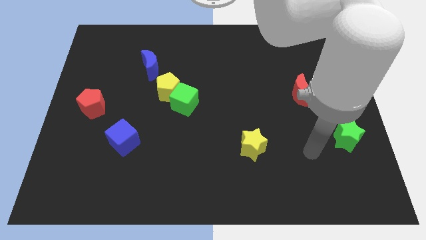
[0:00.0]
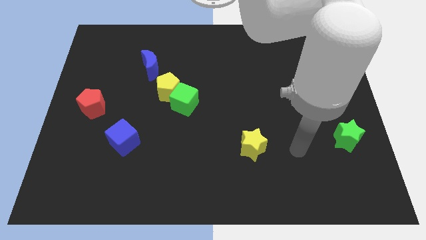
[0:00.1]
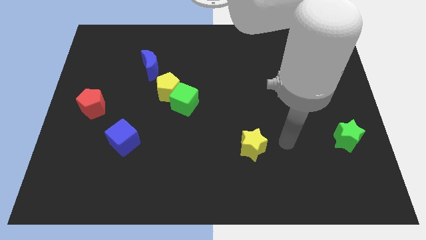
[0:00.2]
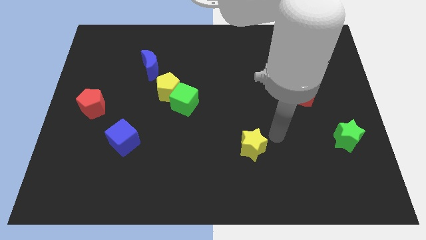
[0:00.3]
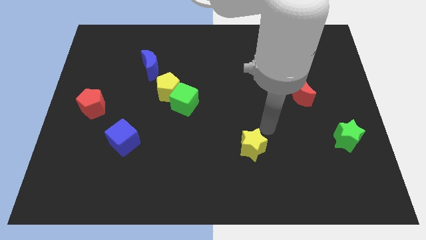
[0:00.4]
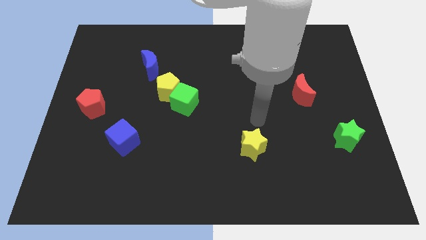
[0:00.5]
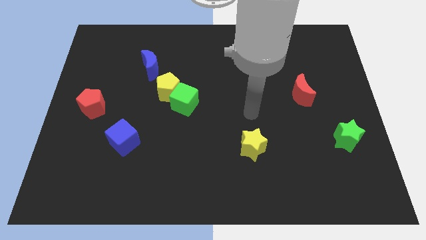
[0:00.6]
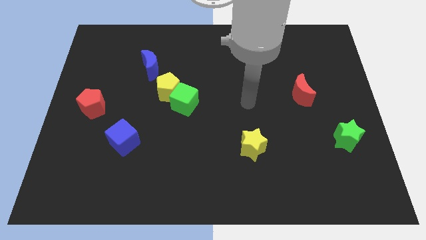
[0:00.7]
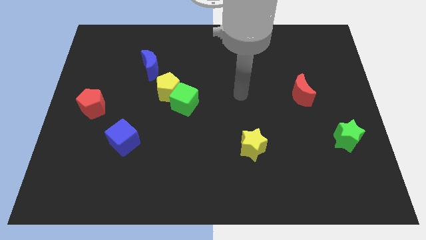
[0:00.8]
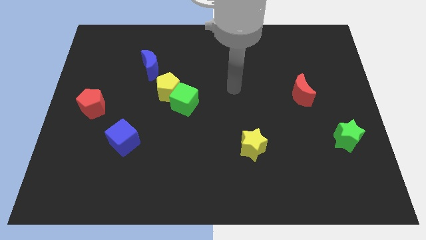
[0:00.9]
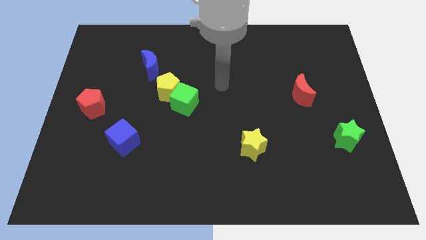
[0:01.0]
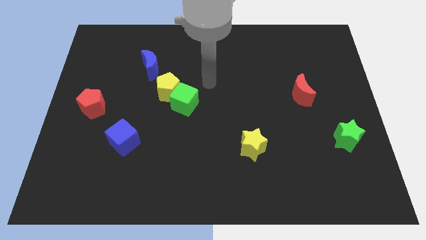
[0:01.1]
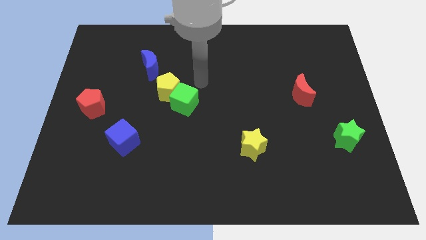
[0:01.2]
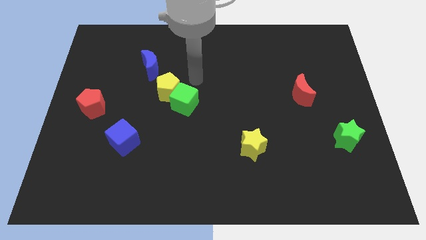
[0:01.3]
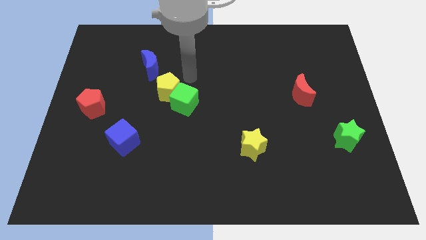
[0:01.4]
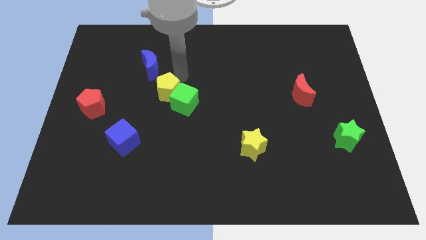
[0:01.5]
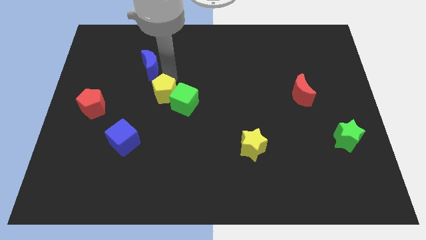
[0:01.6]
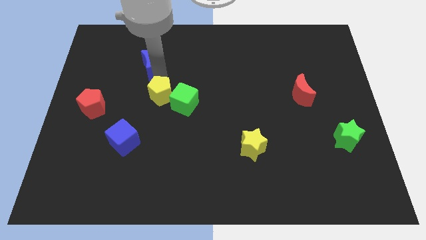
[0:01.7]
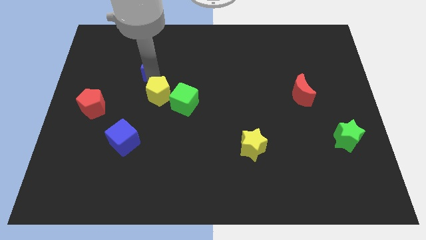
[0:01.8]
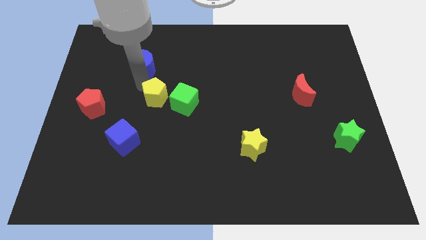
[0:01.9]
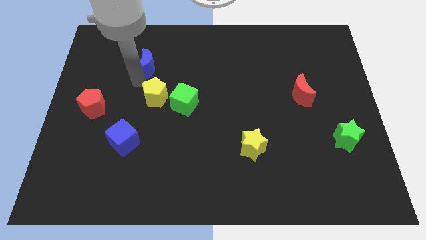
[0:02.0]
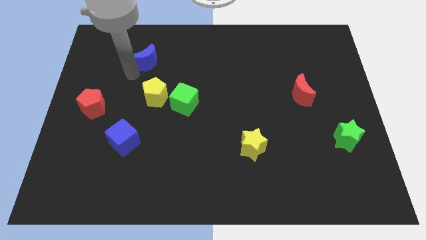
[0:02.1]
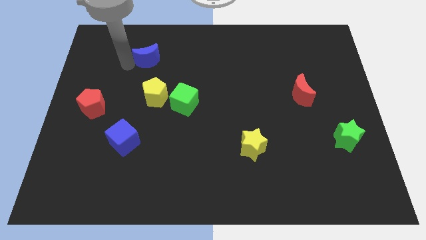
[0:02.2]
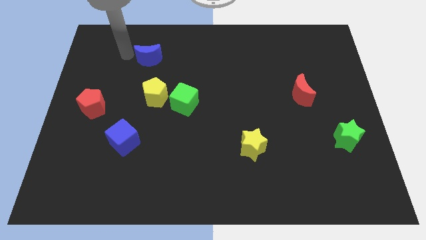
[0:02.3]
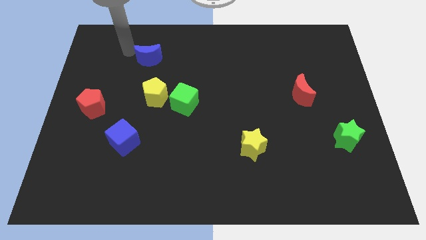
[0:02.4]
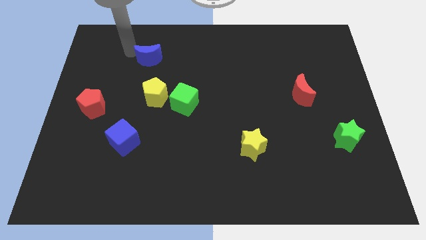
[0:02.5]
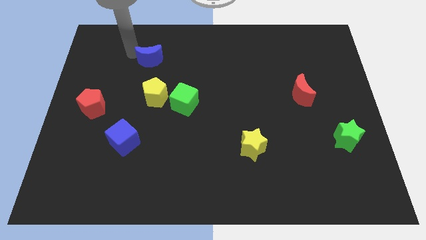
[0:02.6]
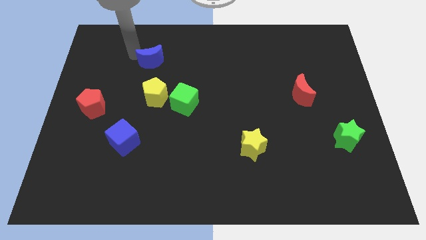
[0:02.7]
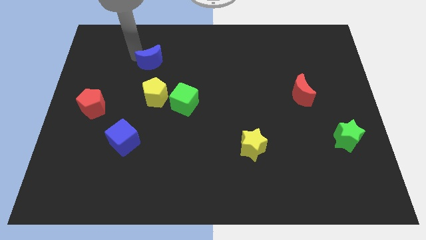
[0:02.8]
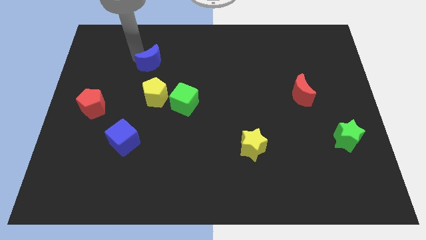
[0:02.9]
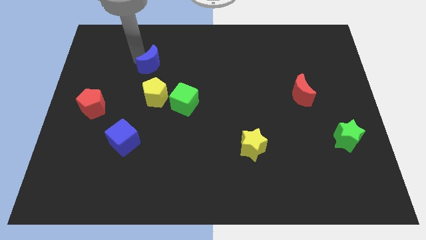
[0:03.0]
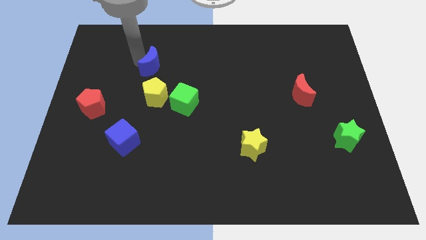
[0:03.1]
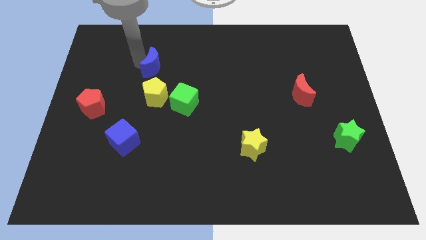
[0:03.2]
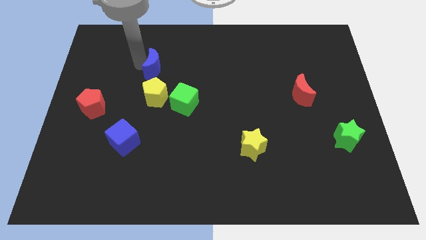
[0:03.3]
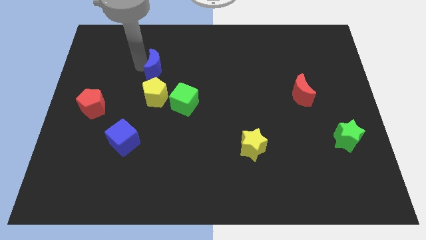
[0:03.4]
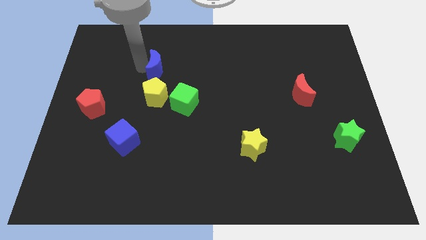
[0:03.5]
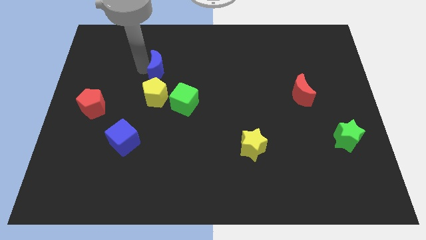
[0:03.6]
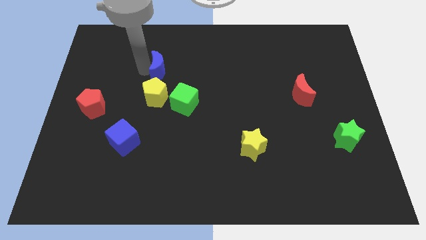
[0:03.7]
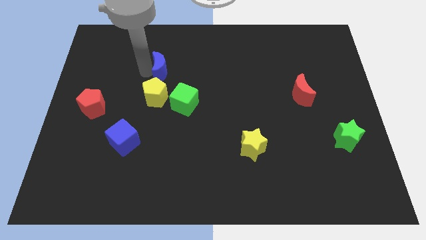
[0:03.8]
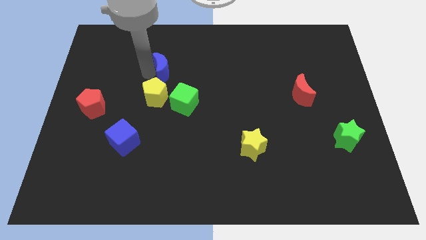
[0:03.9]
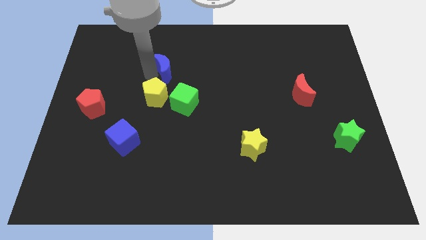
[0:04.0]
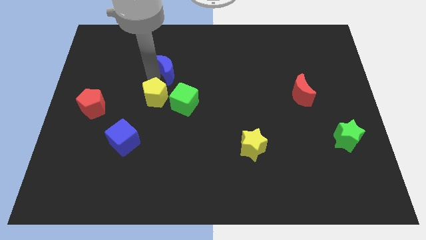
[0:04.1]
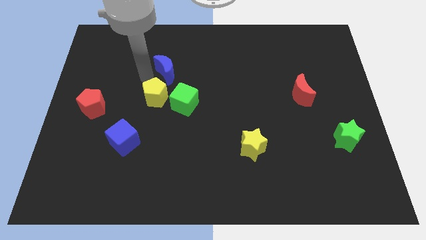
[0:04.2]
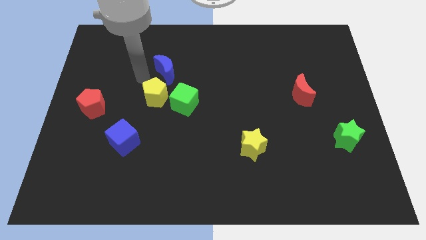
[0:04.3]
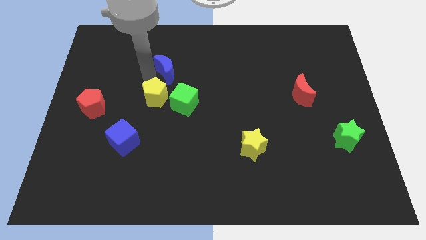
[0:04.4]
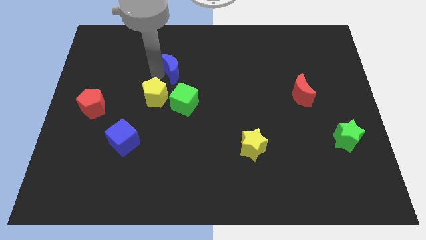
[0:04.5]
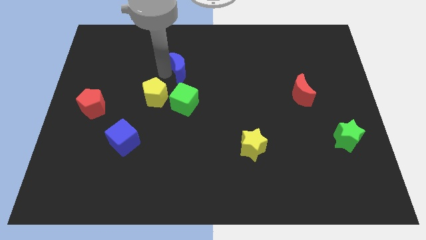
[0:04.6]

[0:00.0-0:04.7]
slightly push the blue moon to the right

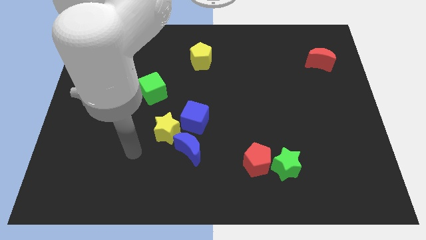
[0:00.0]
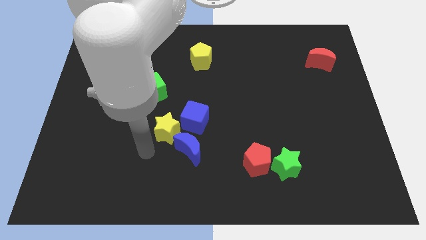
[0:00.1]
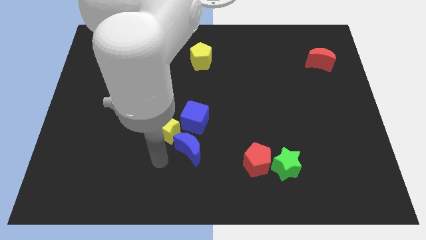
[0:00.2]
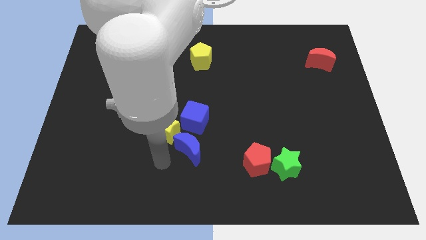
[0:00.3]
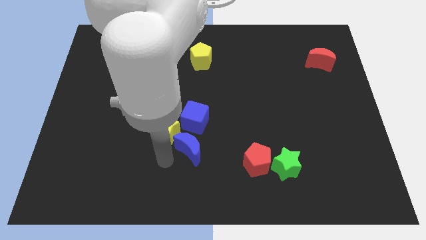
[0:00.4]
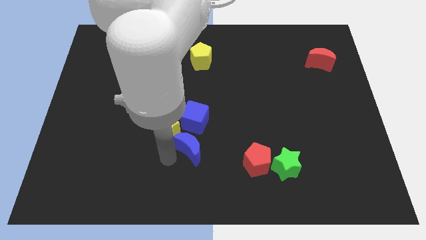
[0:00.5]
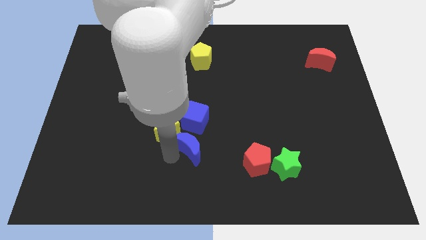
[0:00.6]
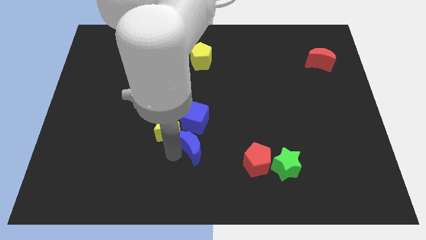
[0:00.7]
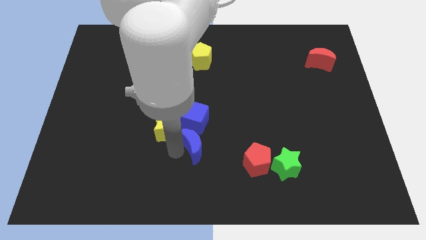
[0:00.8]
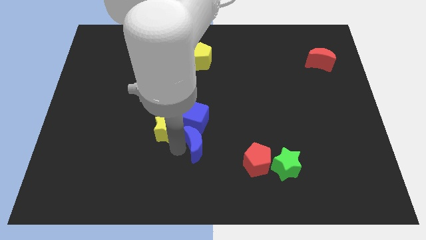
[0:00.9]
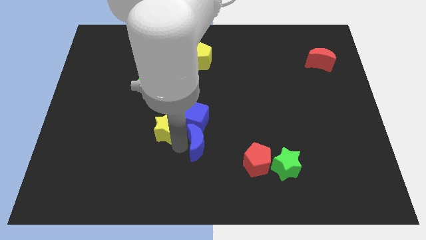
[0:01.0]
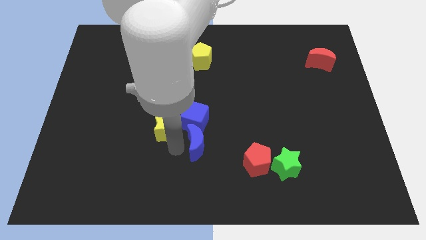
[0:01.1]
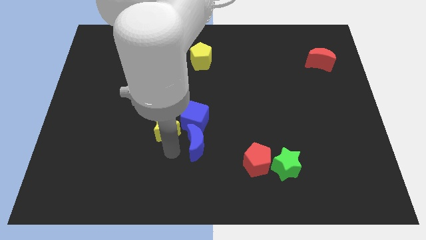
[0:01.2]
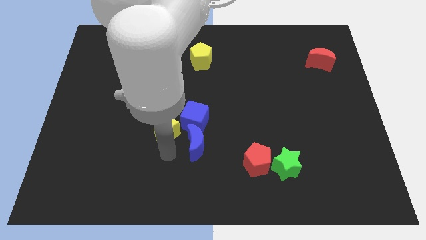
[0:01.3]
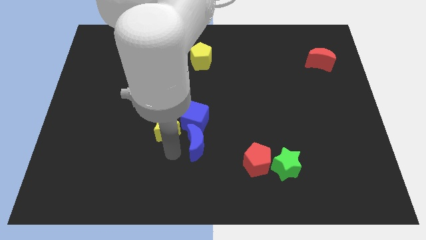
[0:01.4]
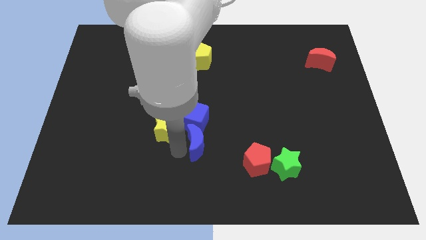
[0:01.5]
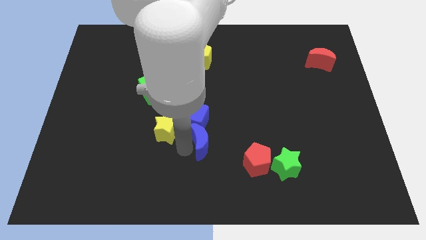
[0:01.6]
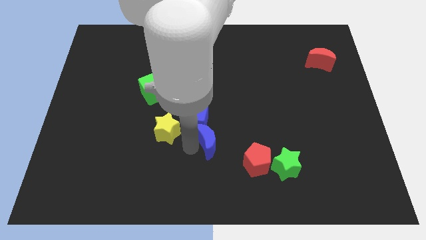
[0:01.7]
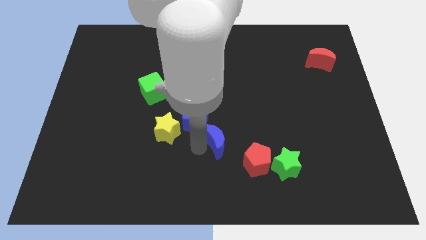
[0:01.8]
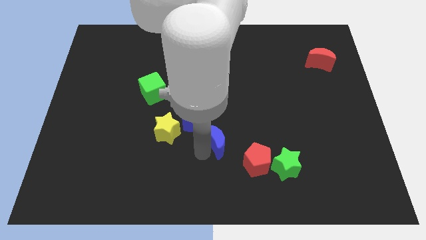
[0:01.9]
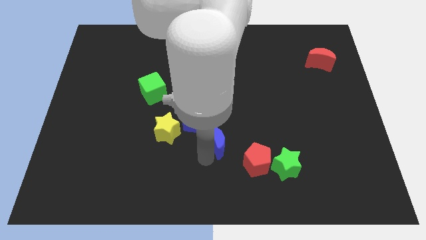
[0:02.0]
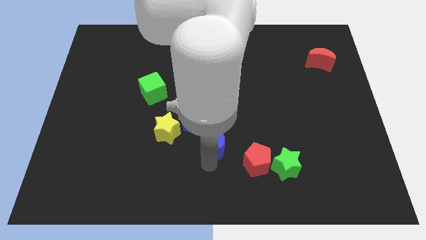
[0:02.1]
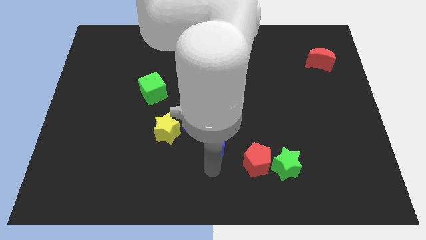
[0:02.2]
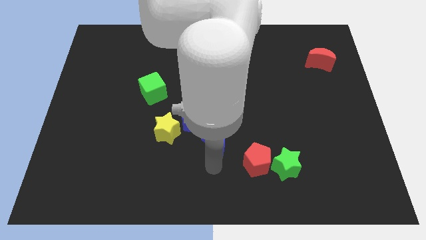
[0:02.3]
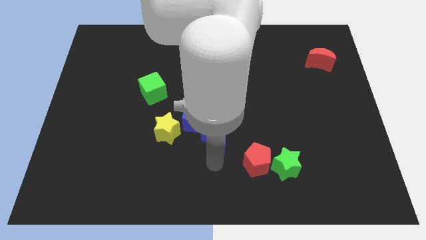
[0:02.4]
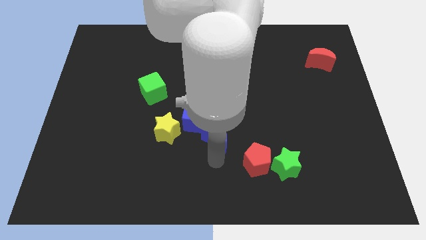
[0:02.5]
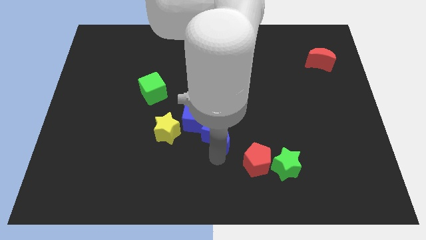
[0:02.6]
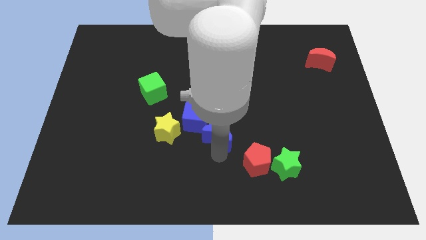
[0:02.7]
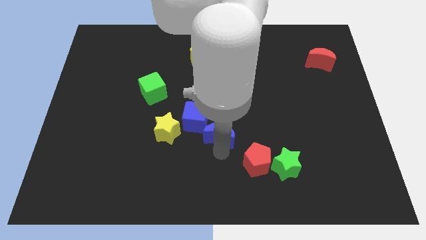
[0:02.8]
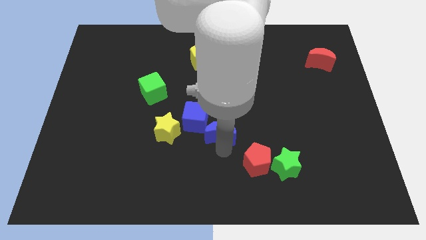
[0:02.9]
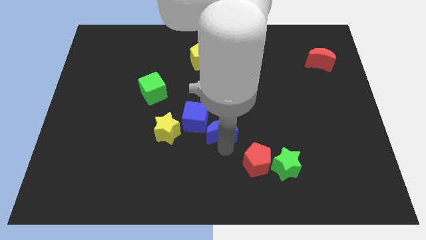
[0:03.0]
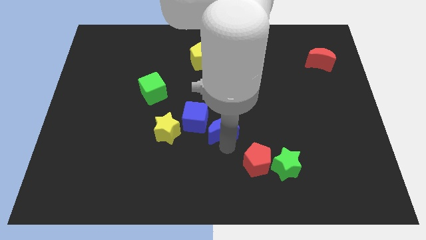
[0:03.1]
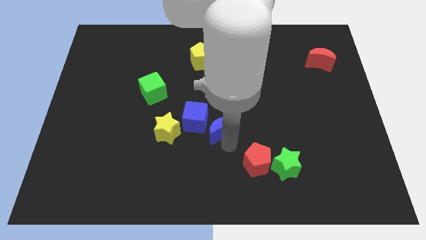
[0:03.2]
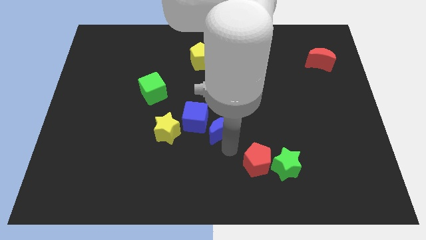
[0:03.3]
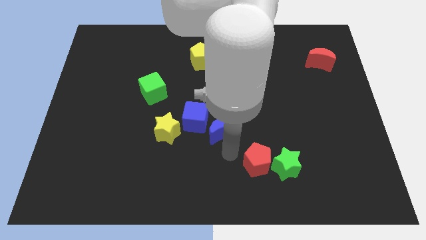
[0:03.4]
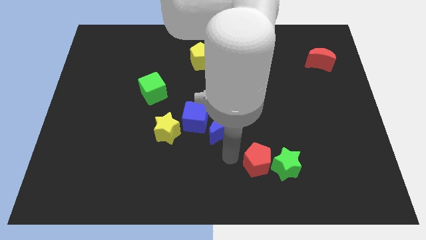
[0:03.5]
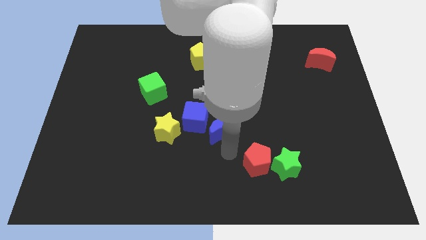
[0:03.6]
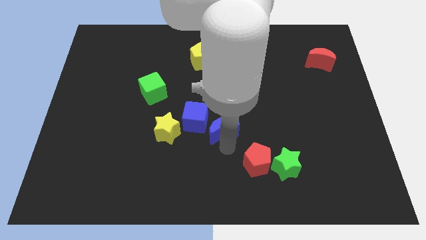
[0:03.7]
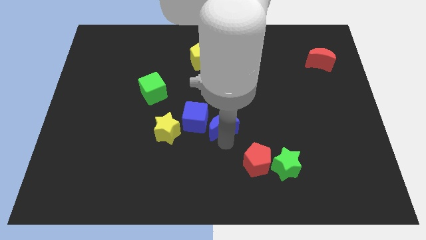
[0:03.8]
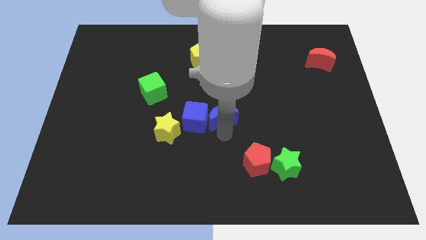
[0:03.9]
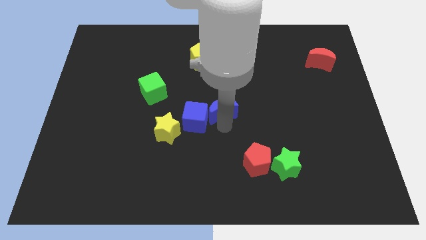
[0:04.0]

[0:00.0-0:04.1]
slide the blue moon a bit upwards
